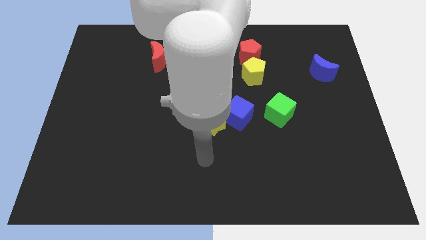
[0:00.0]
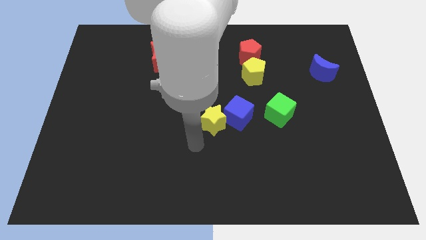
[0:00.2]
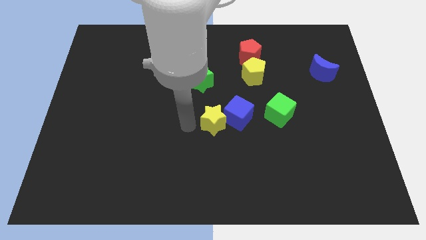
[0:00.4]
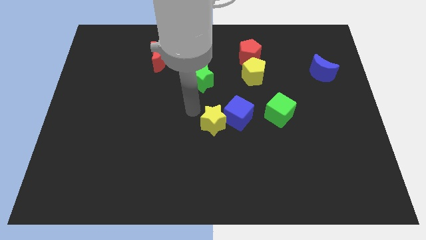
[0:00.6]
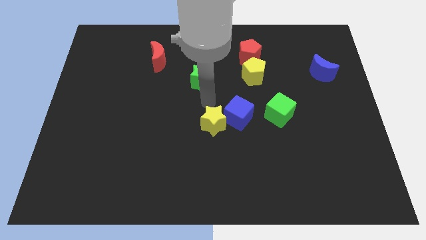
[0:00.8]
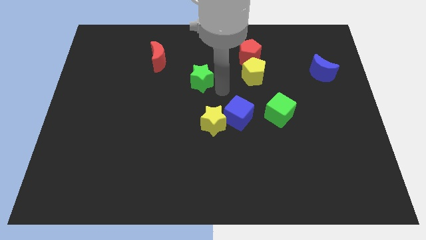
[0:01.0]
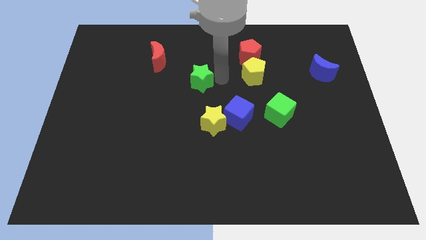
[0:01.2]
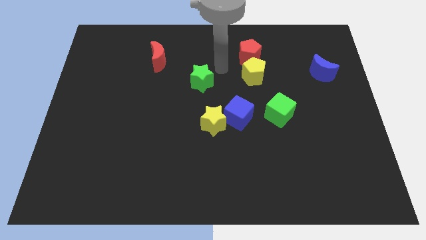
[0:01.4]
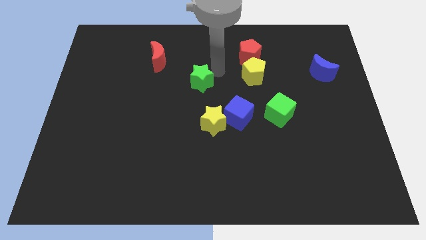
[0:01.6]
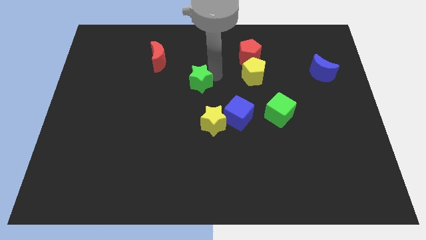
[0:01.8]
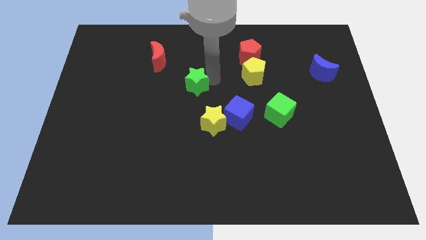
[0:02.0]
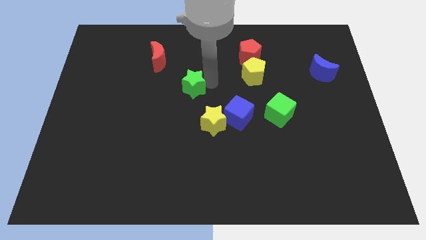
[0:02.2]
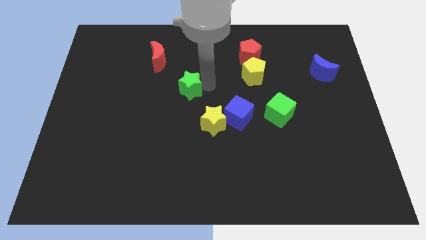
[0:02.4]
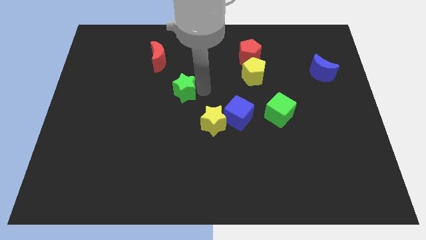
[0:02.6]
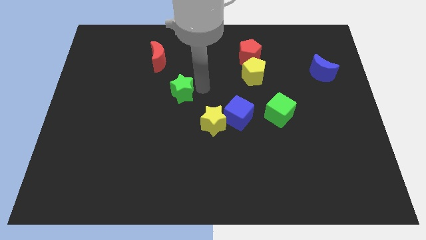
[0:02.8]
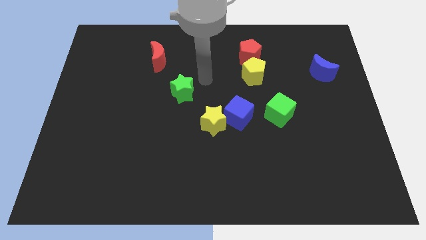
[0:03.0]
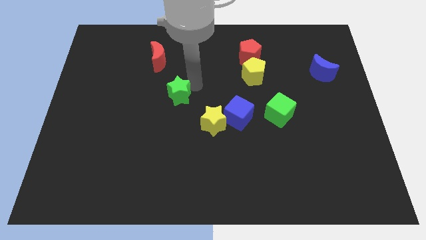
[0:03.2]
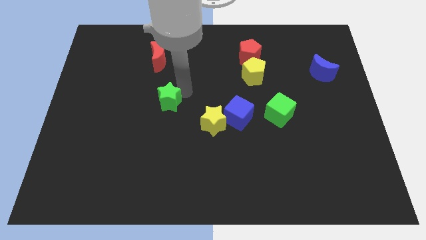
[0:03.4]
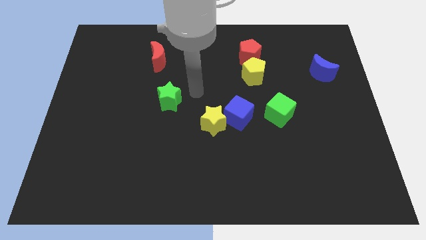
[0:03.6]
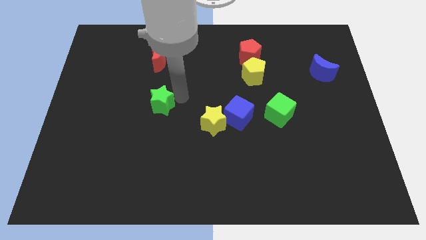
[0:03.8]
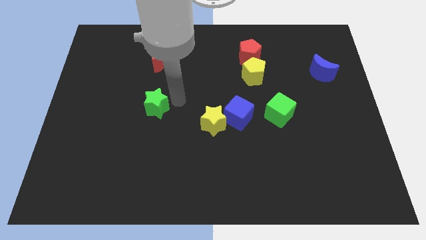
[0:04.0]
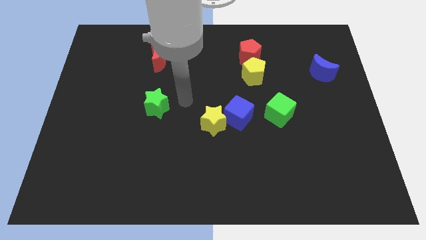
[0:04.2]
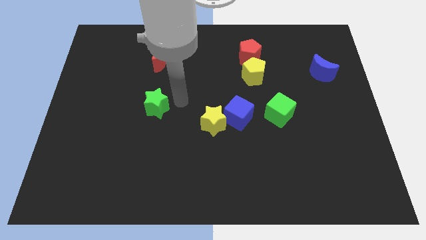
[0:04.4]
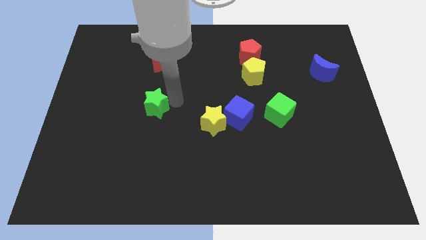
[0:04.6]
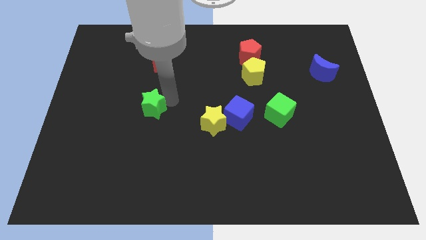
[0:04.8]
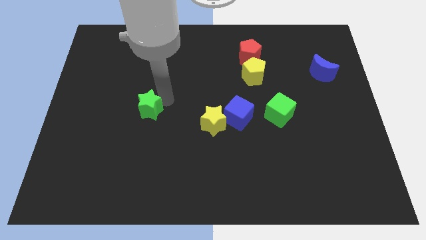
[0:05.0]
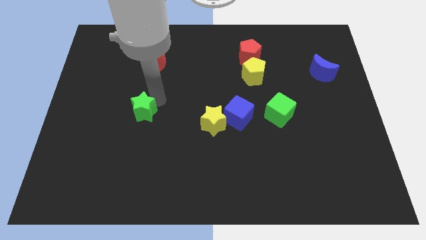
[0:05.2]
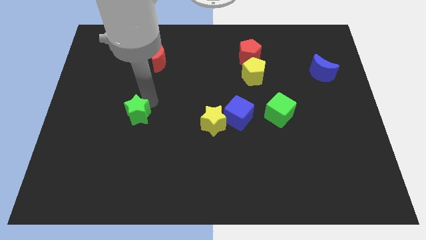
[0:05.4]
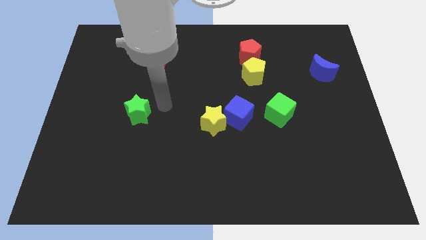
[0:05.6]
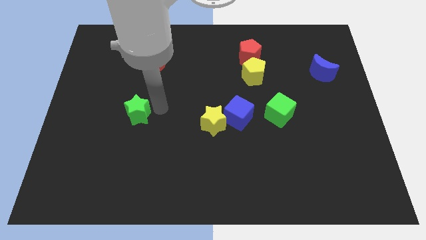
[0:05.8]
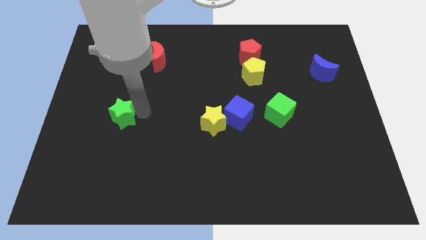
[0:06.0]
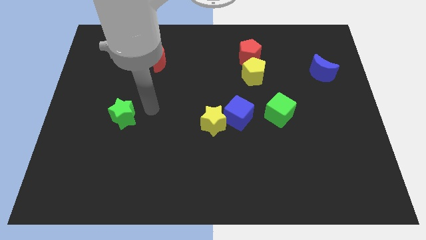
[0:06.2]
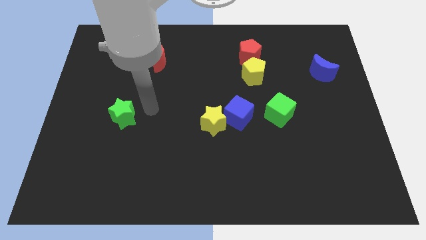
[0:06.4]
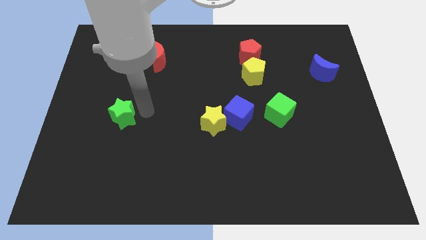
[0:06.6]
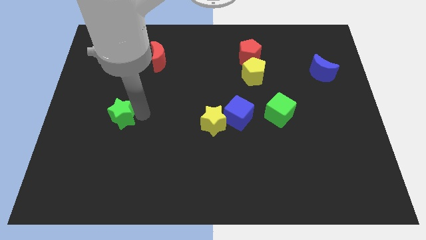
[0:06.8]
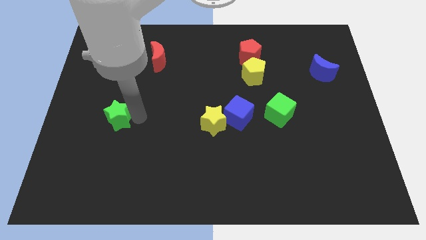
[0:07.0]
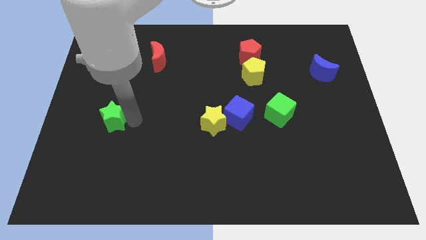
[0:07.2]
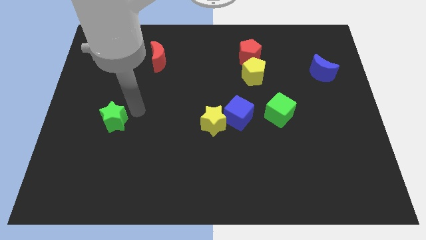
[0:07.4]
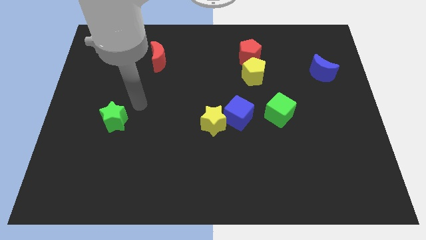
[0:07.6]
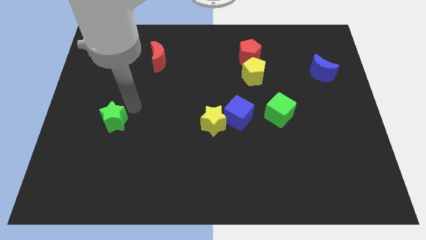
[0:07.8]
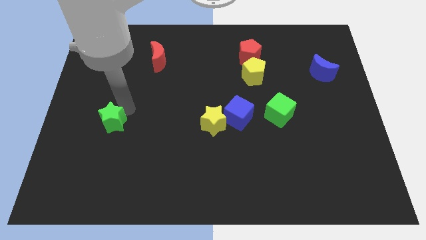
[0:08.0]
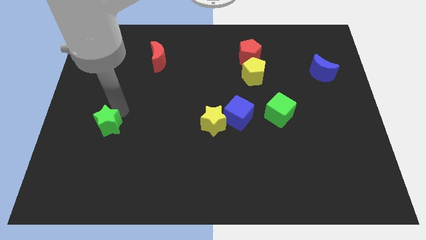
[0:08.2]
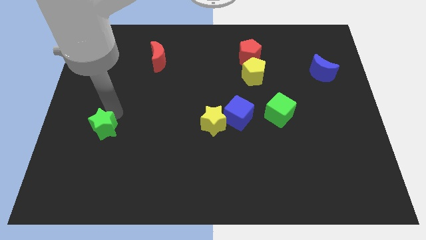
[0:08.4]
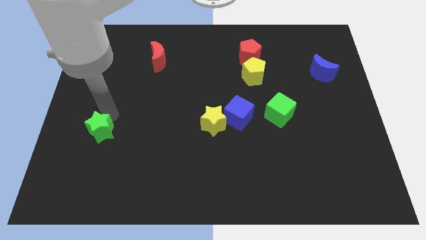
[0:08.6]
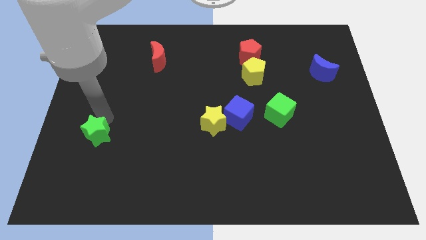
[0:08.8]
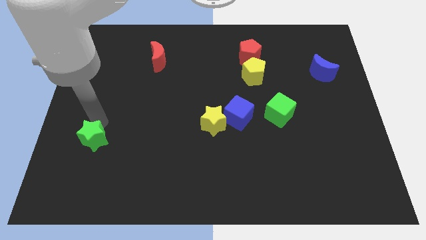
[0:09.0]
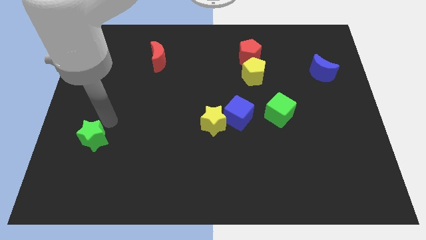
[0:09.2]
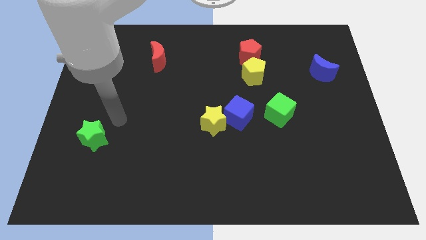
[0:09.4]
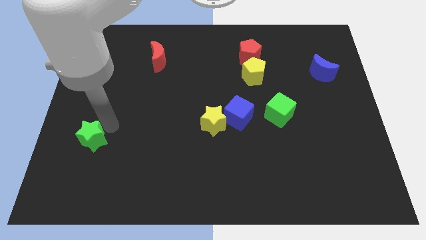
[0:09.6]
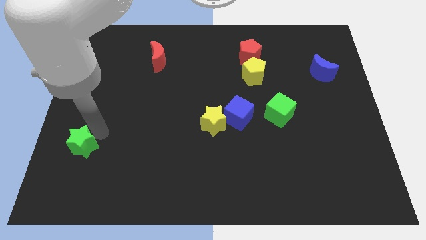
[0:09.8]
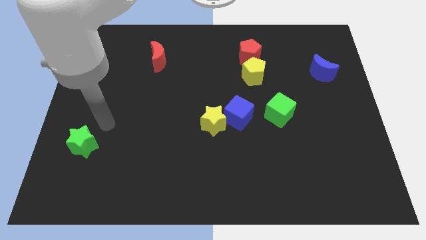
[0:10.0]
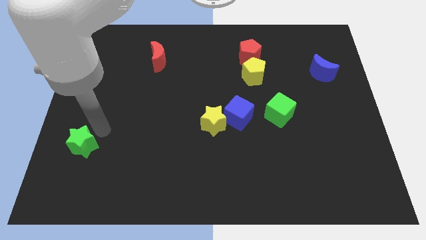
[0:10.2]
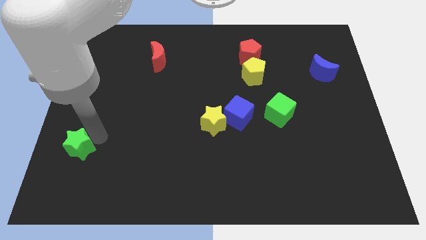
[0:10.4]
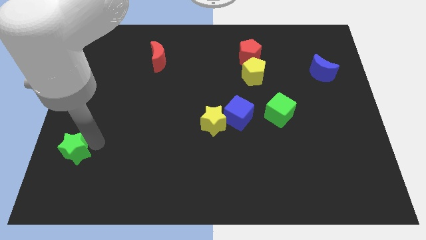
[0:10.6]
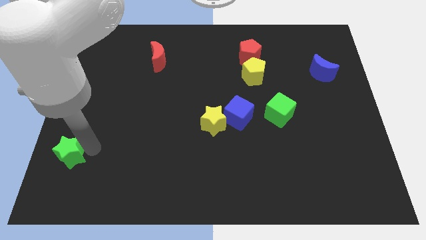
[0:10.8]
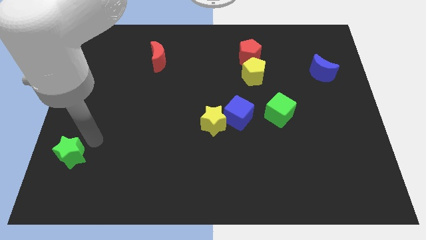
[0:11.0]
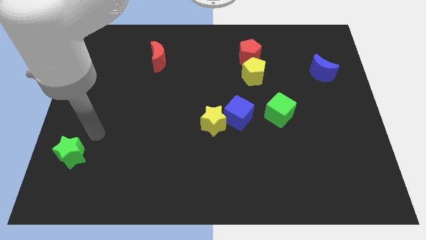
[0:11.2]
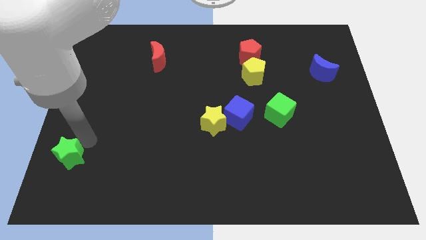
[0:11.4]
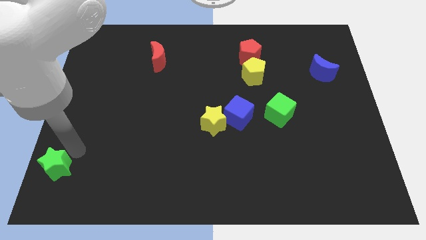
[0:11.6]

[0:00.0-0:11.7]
put the green star to the bottom left
